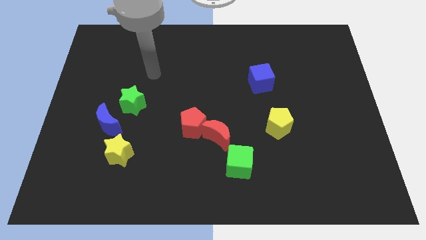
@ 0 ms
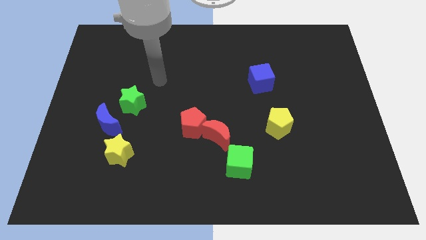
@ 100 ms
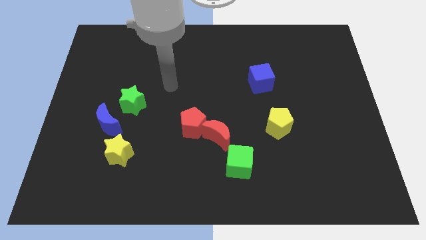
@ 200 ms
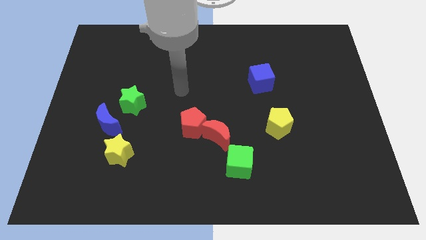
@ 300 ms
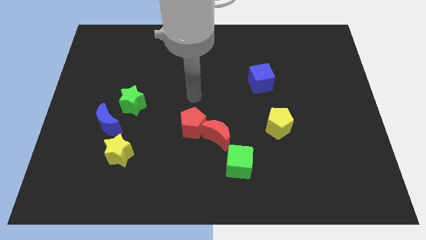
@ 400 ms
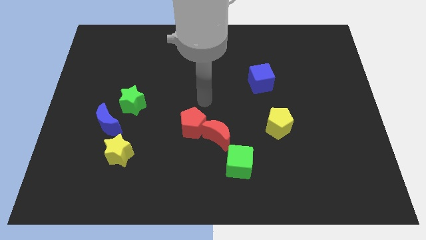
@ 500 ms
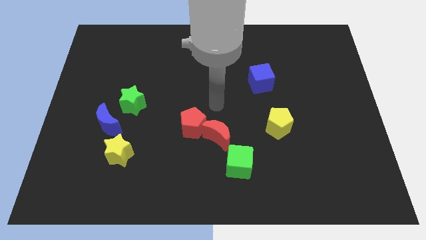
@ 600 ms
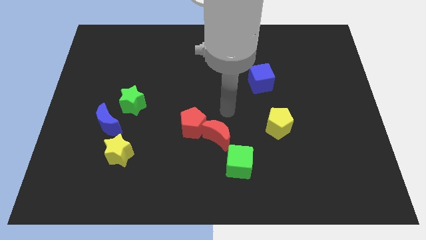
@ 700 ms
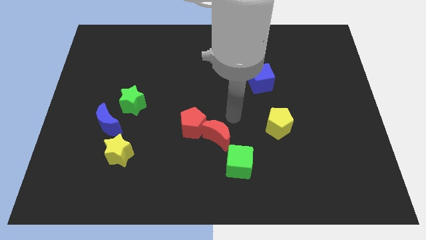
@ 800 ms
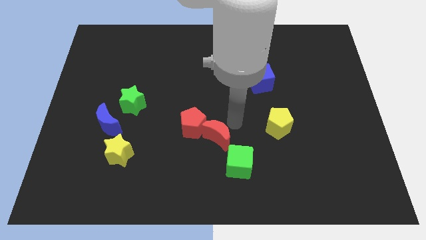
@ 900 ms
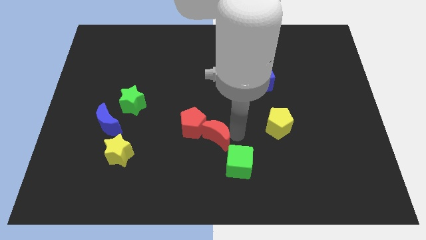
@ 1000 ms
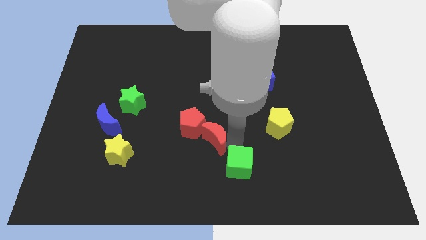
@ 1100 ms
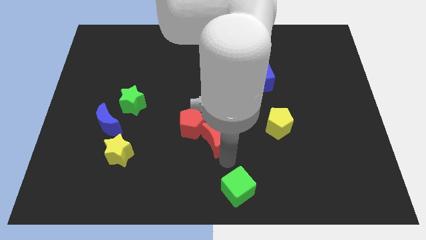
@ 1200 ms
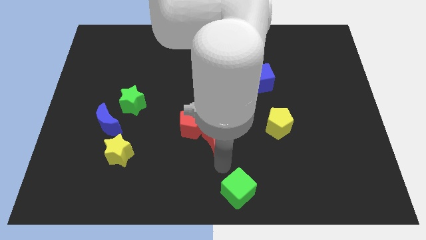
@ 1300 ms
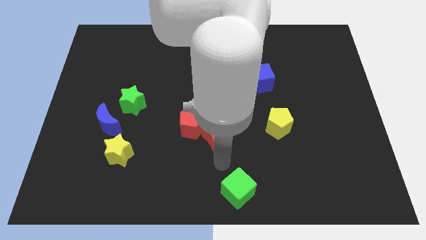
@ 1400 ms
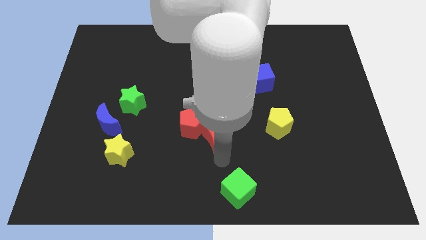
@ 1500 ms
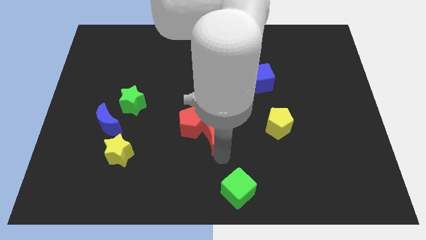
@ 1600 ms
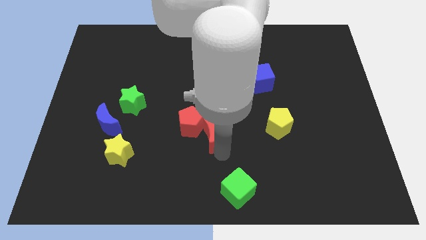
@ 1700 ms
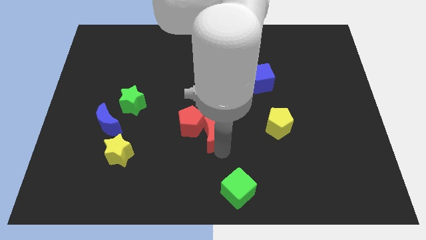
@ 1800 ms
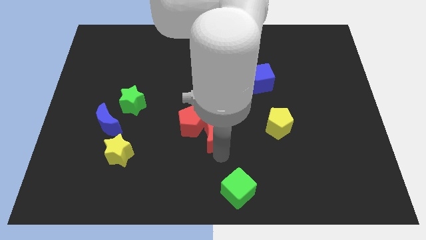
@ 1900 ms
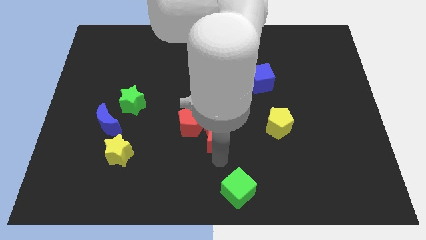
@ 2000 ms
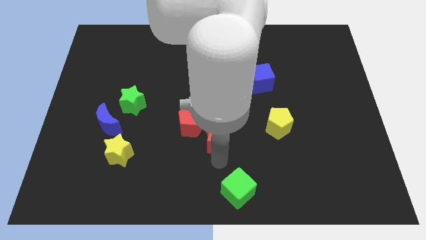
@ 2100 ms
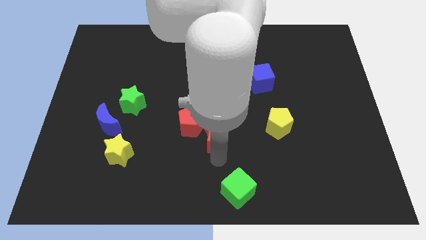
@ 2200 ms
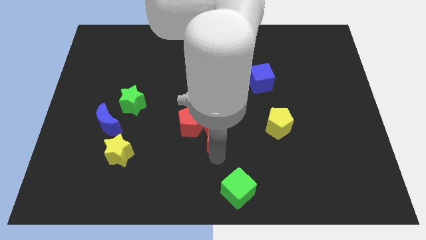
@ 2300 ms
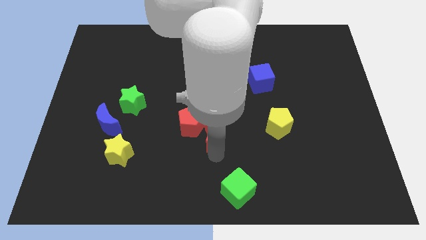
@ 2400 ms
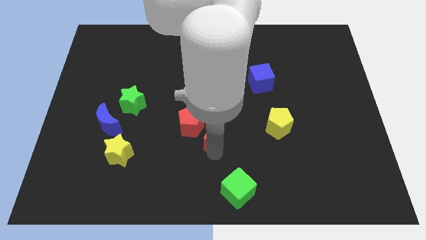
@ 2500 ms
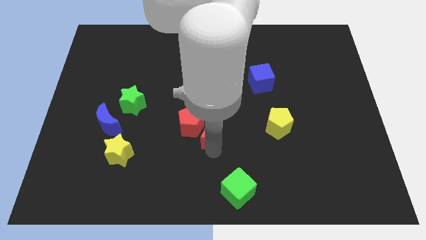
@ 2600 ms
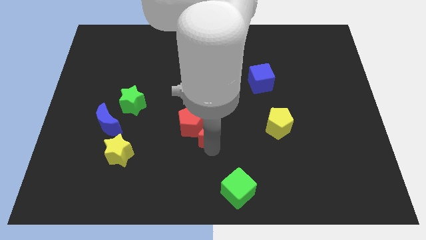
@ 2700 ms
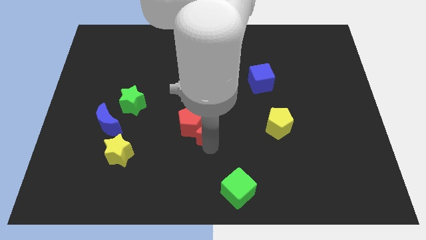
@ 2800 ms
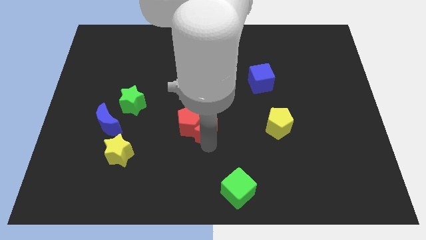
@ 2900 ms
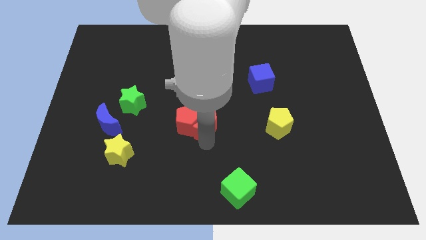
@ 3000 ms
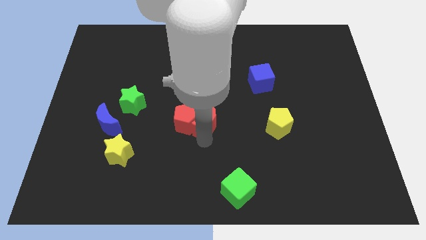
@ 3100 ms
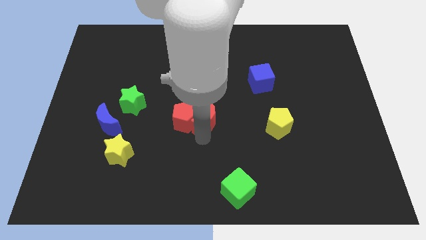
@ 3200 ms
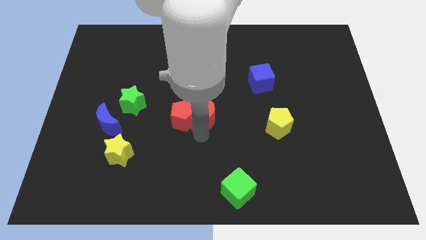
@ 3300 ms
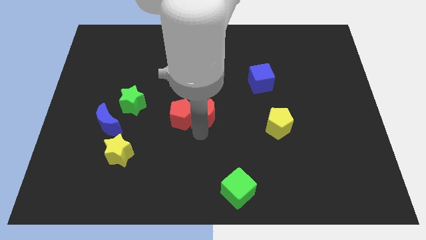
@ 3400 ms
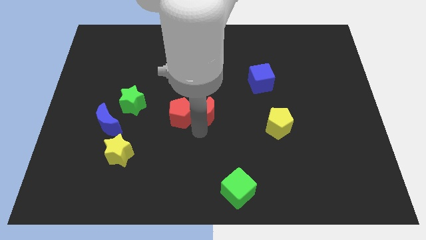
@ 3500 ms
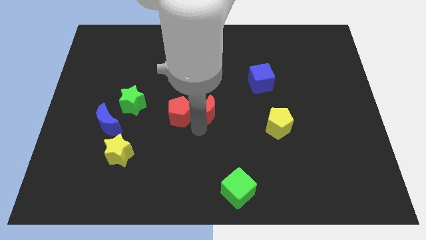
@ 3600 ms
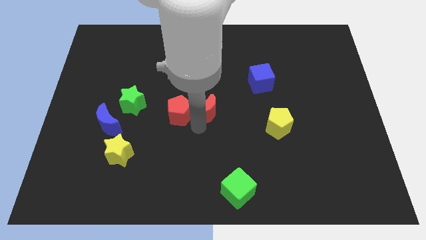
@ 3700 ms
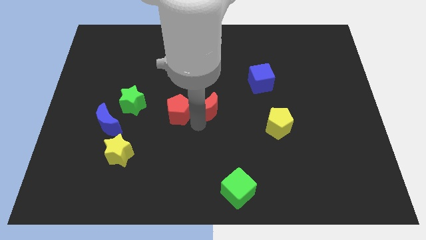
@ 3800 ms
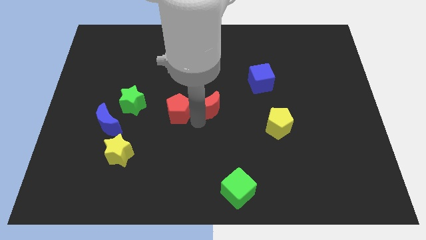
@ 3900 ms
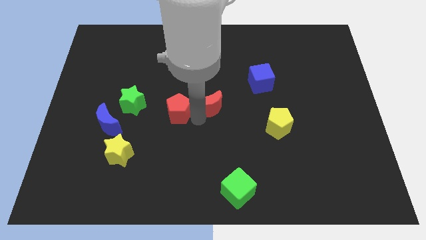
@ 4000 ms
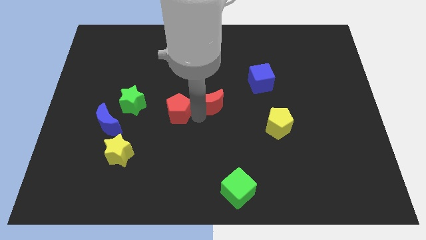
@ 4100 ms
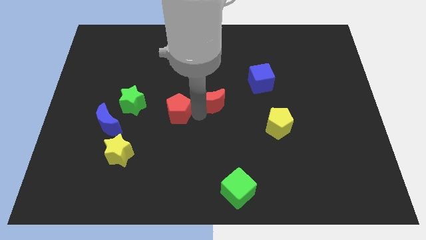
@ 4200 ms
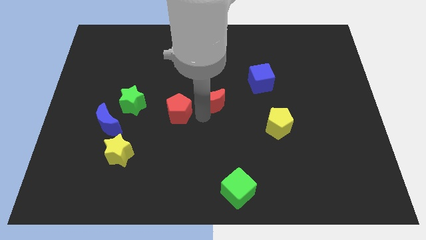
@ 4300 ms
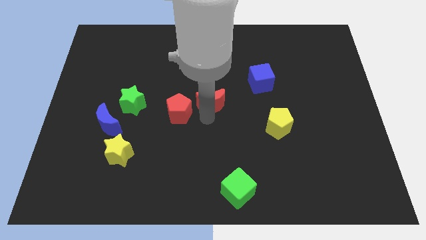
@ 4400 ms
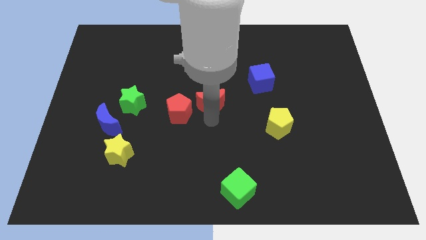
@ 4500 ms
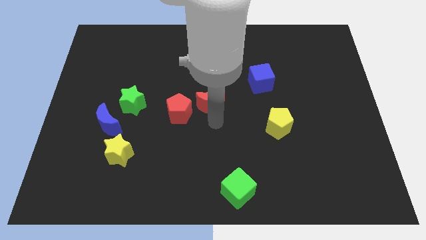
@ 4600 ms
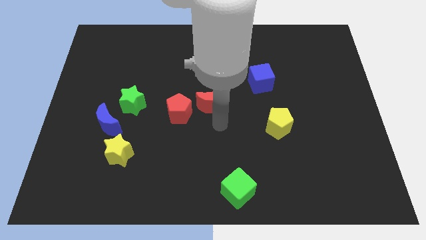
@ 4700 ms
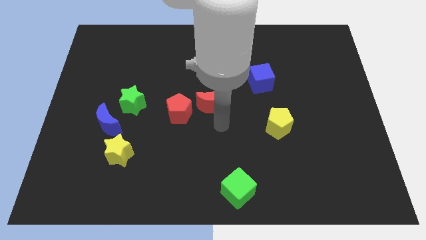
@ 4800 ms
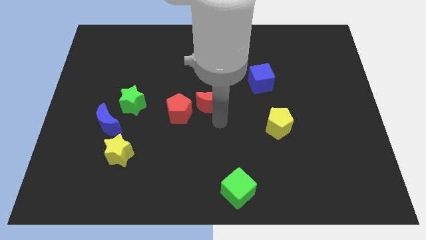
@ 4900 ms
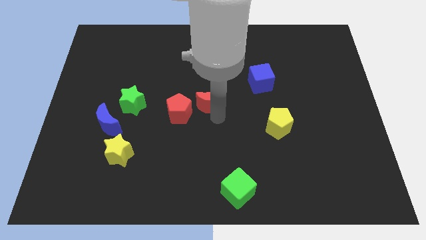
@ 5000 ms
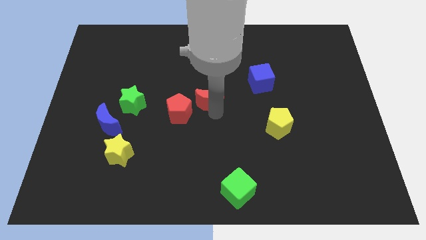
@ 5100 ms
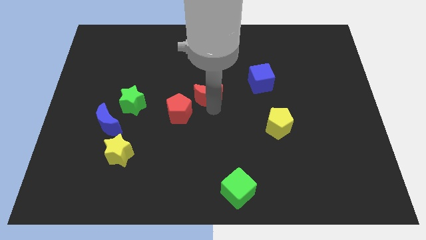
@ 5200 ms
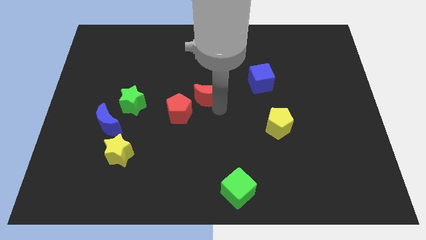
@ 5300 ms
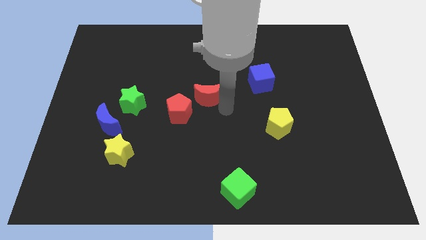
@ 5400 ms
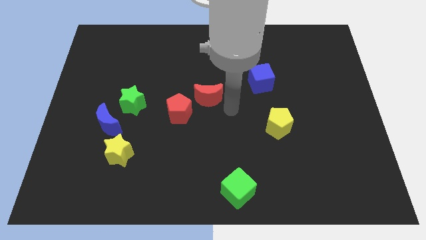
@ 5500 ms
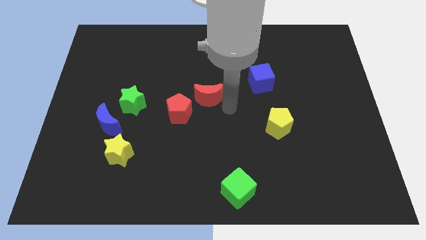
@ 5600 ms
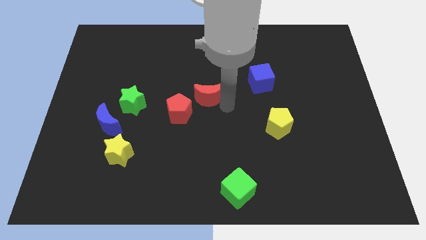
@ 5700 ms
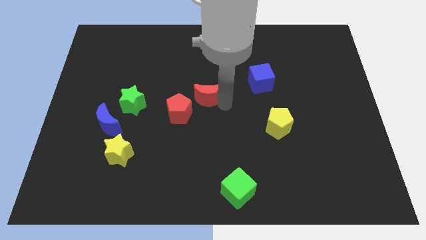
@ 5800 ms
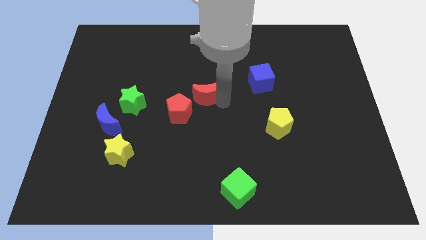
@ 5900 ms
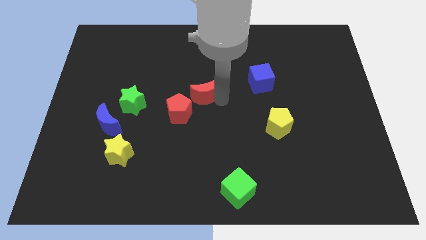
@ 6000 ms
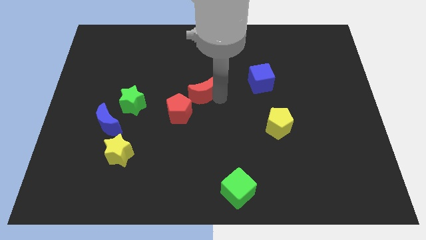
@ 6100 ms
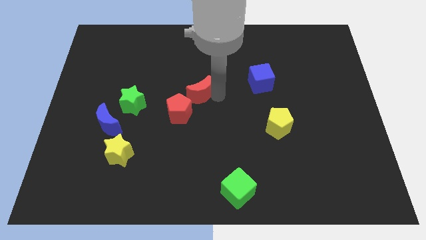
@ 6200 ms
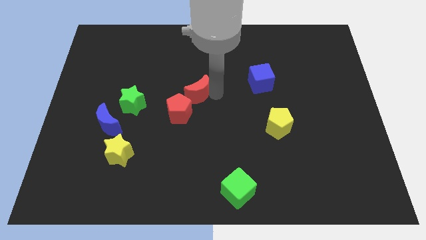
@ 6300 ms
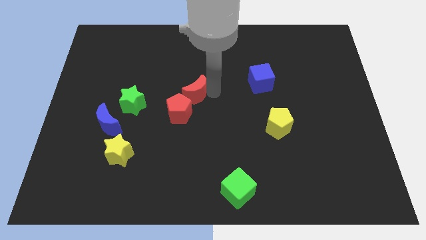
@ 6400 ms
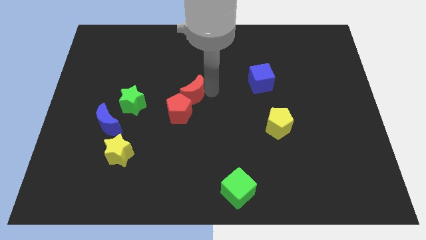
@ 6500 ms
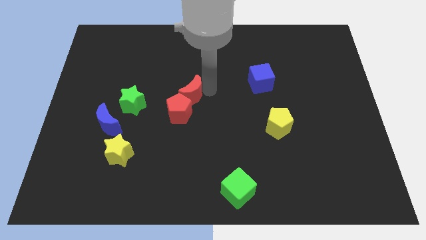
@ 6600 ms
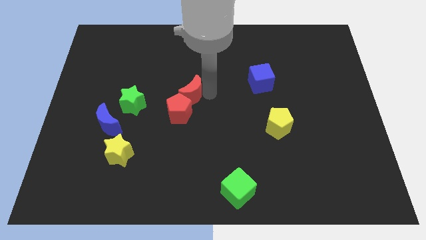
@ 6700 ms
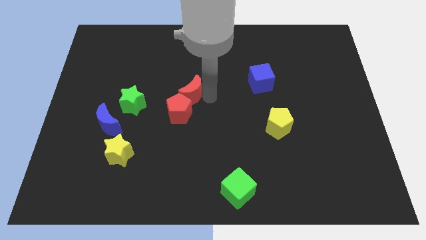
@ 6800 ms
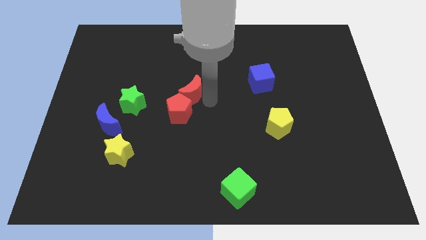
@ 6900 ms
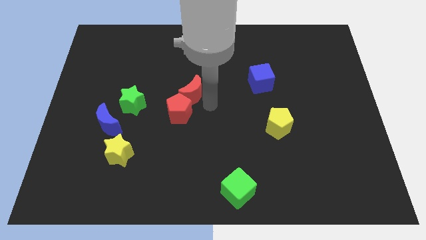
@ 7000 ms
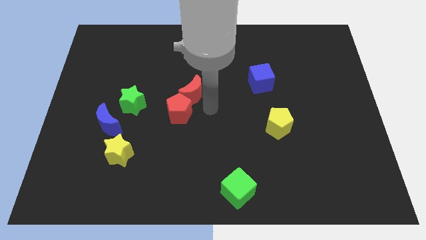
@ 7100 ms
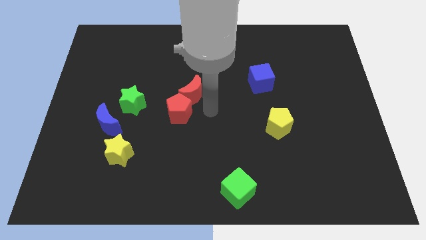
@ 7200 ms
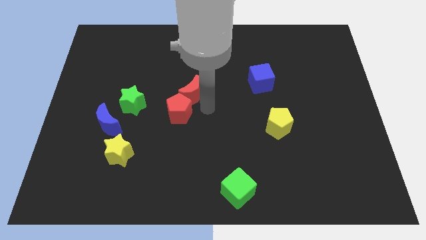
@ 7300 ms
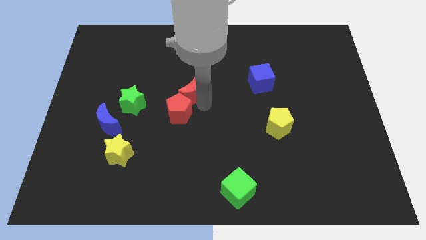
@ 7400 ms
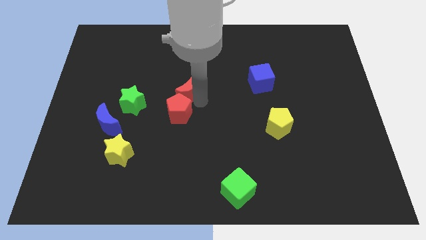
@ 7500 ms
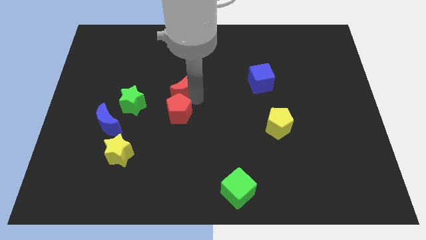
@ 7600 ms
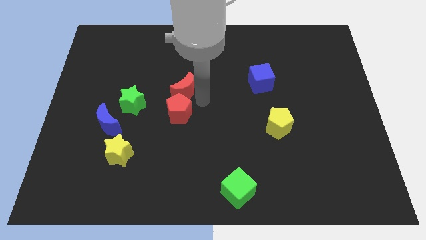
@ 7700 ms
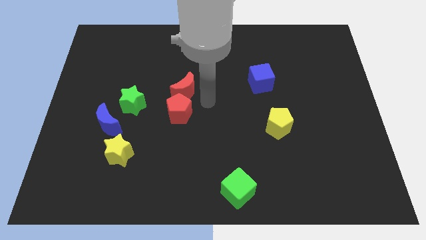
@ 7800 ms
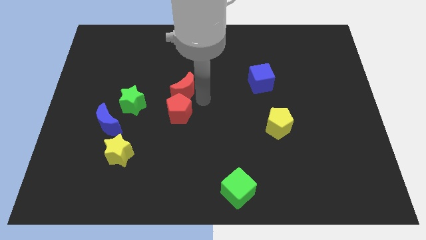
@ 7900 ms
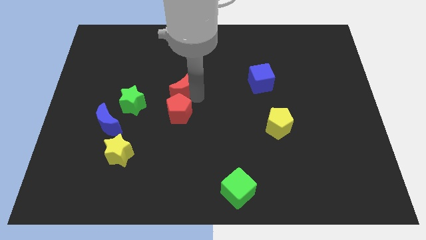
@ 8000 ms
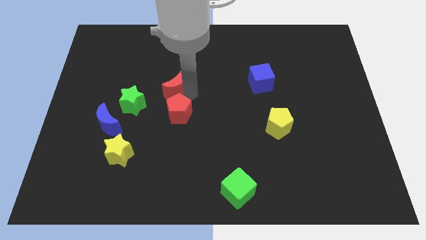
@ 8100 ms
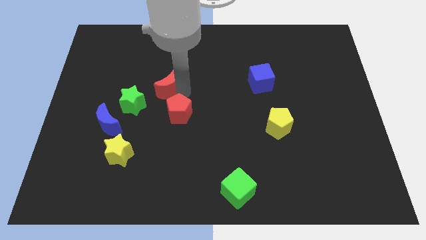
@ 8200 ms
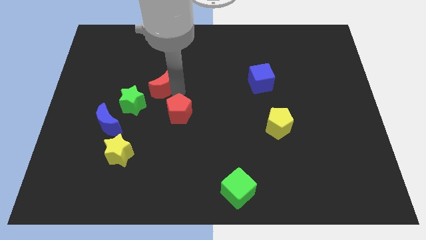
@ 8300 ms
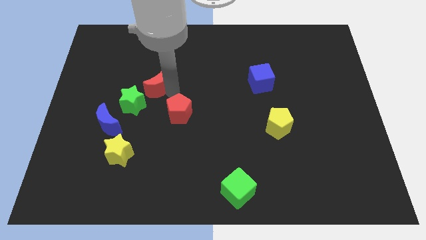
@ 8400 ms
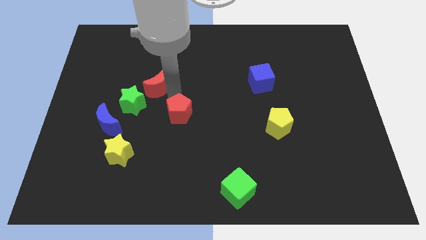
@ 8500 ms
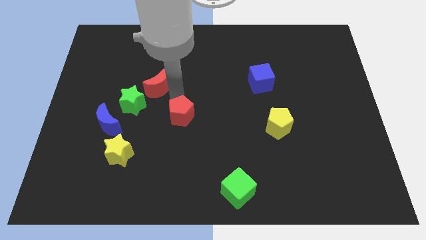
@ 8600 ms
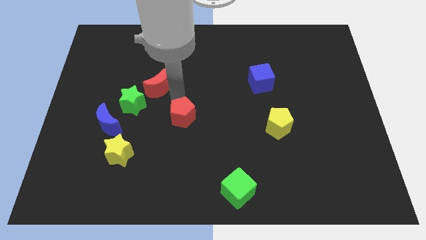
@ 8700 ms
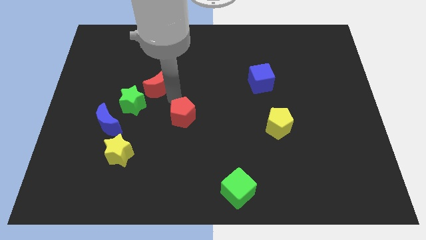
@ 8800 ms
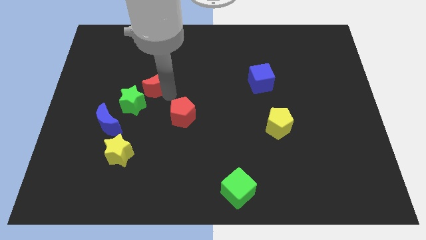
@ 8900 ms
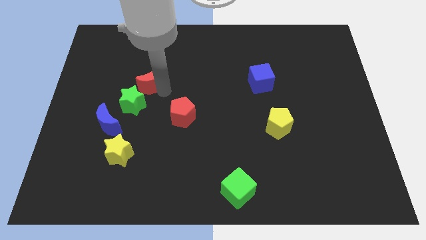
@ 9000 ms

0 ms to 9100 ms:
push the red moon above the green star
